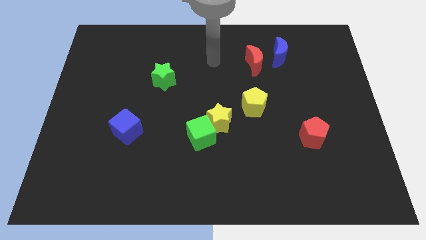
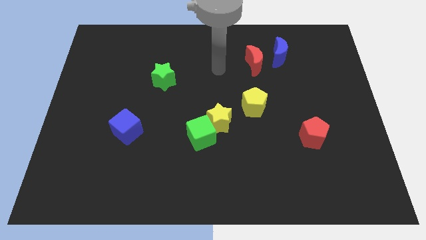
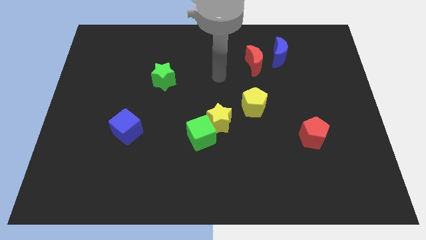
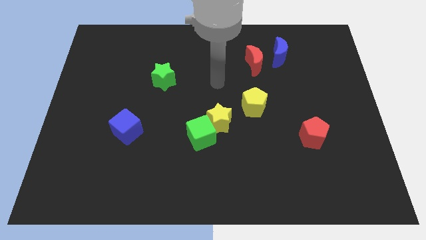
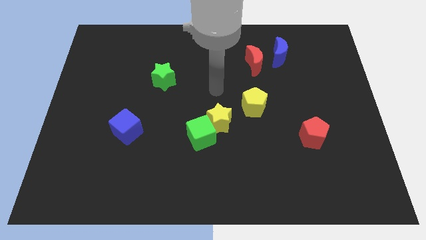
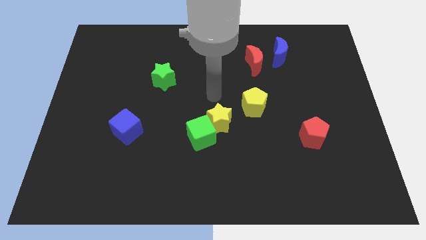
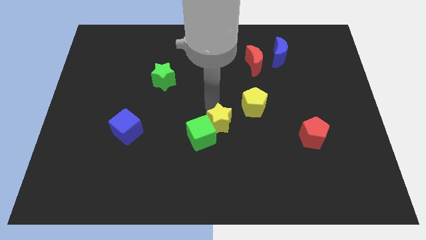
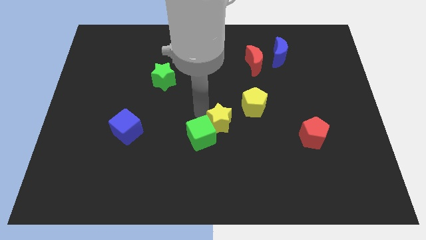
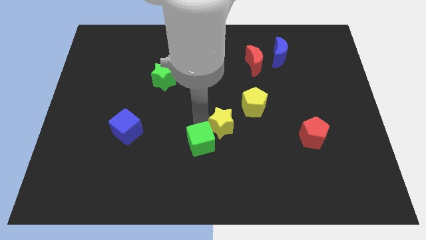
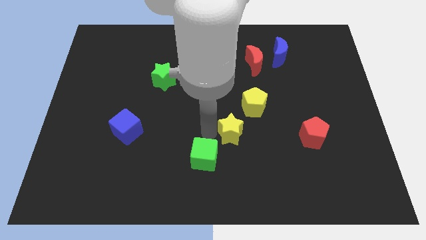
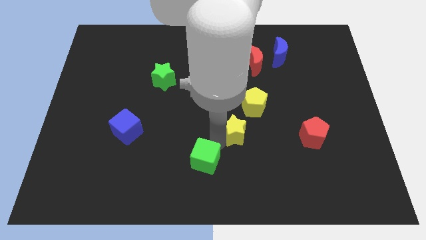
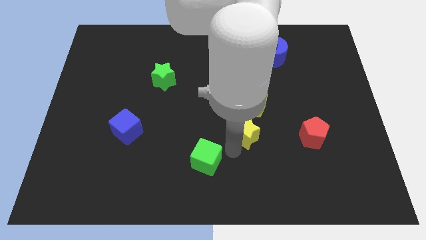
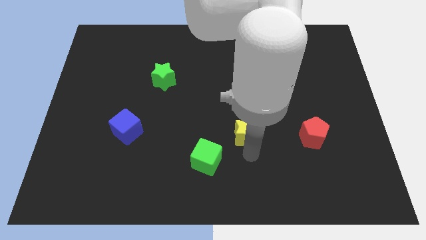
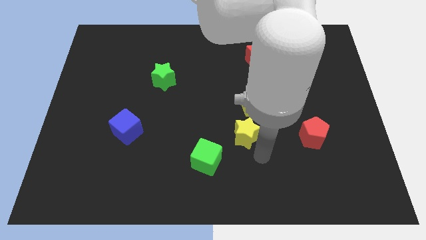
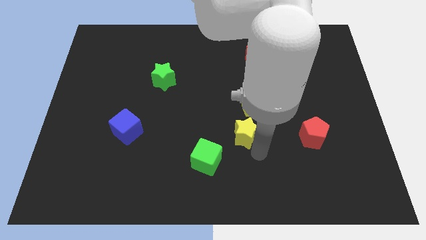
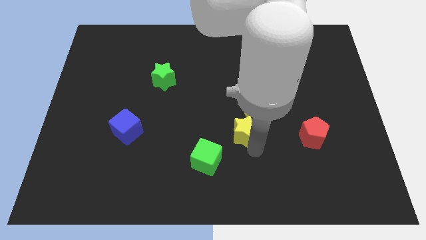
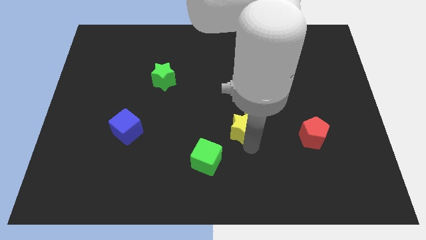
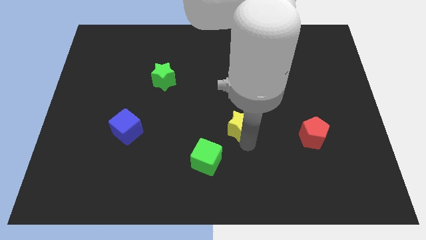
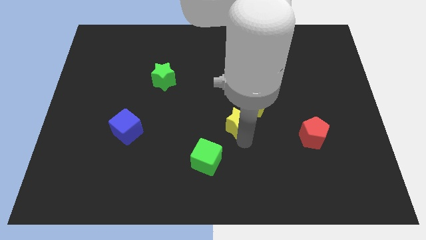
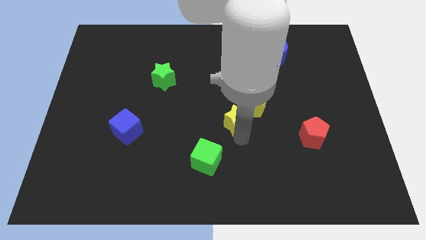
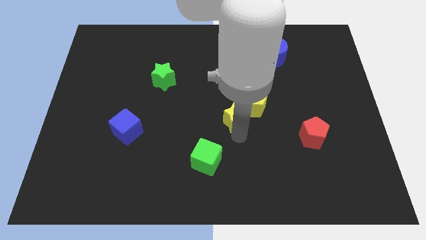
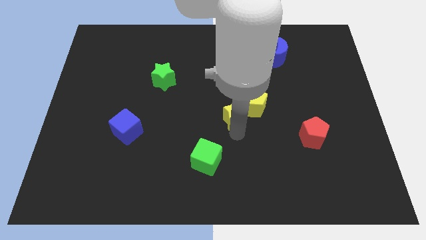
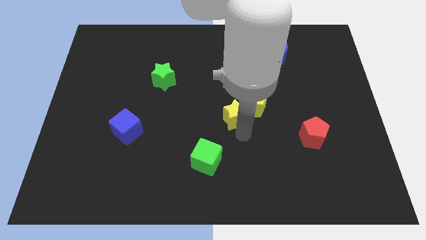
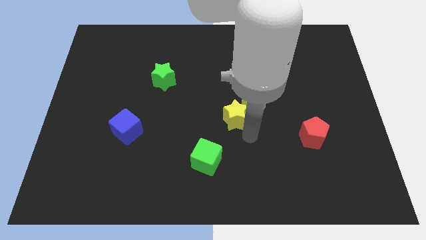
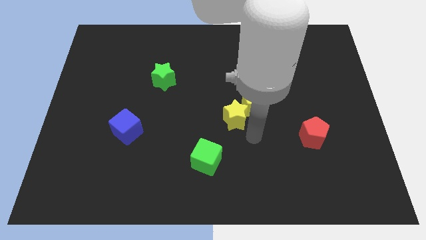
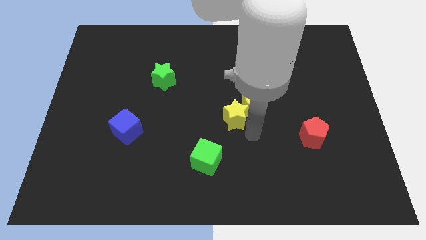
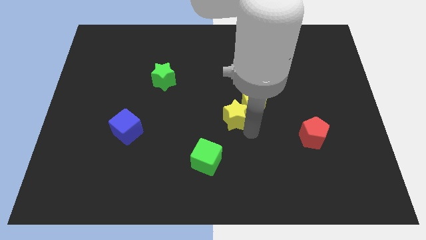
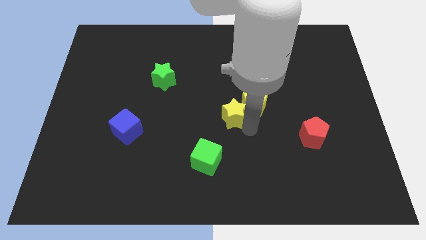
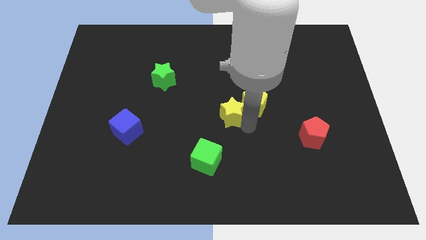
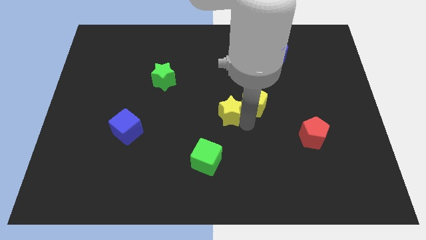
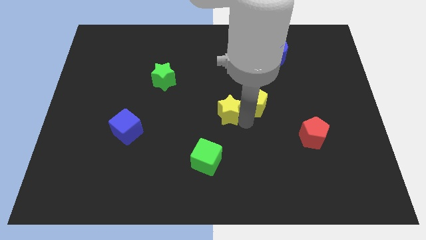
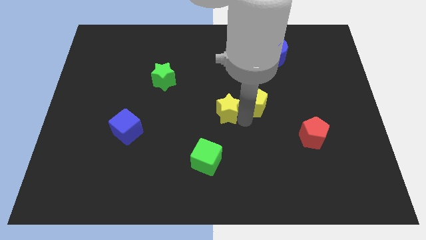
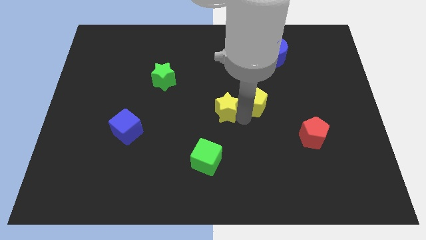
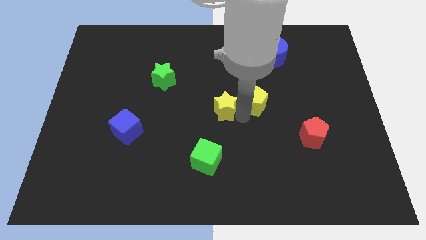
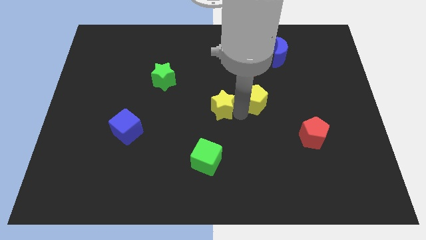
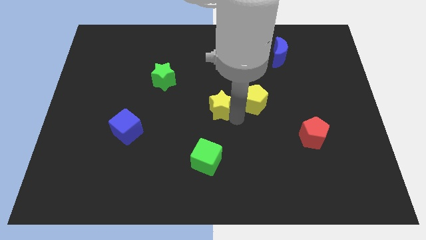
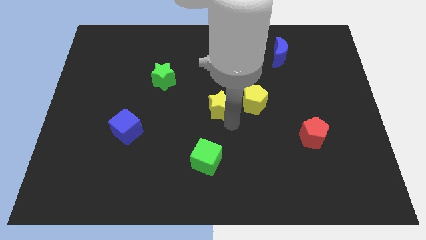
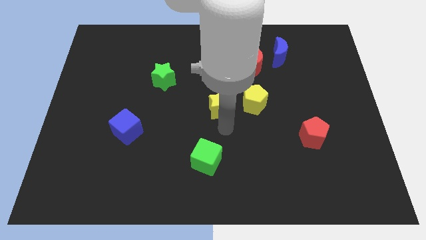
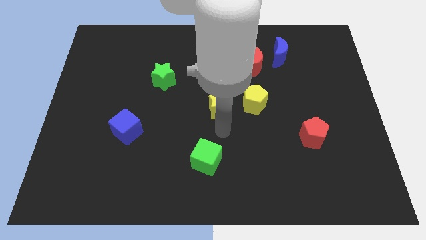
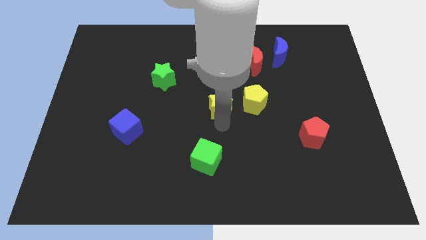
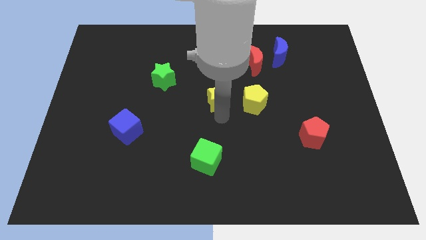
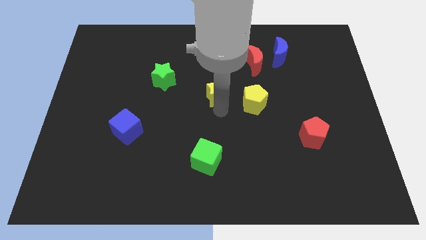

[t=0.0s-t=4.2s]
slide the yellow star slightly upwards

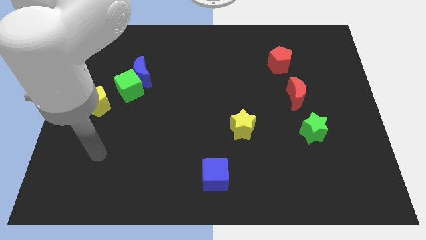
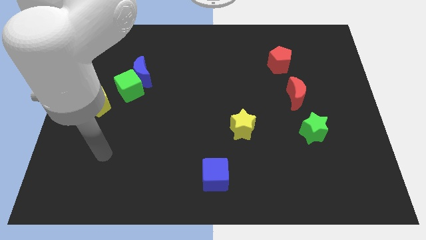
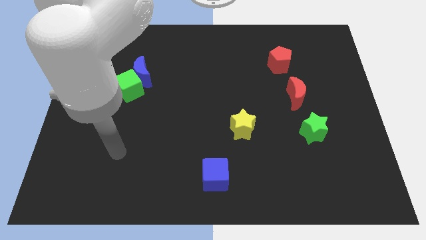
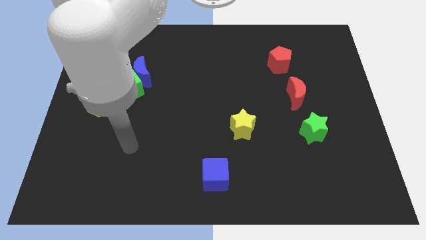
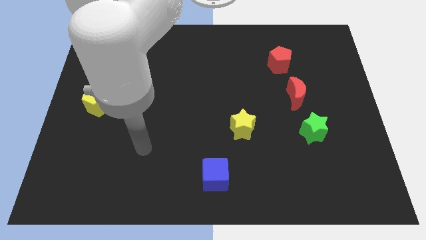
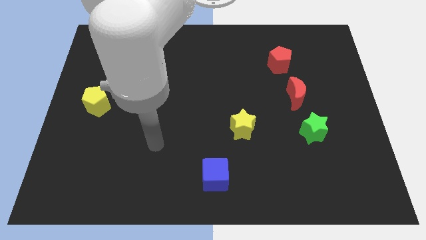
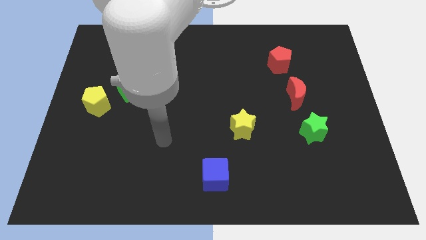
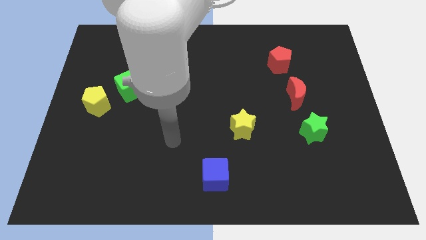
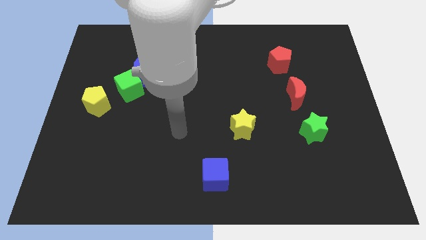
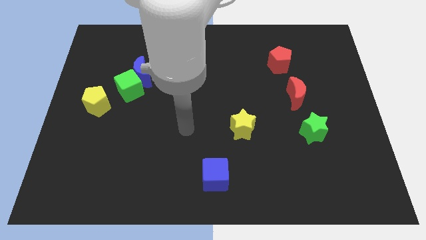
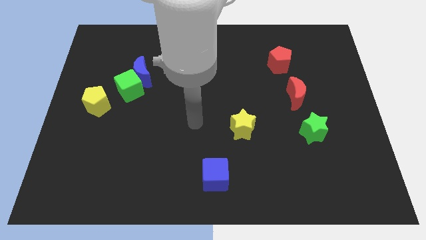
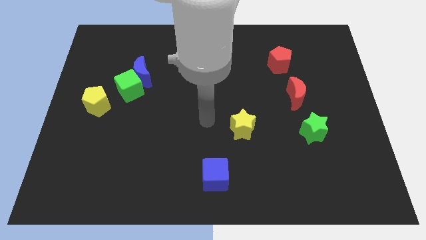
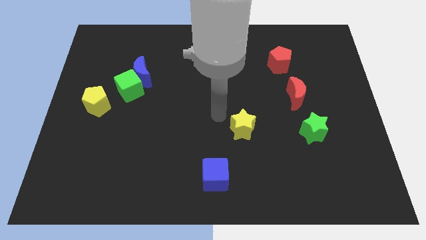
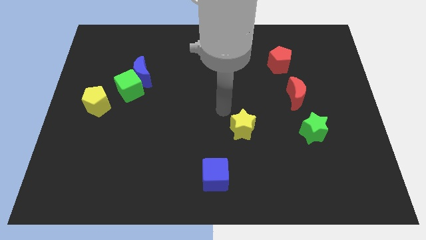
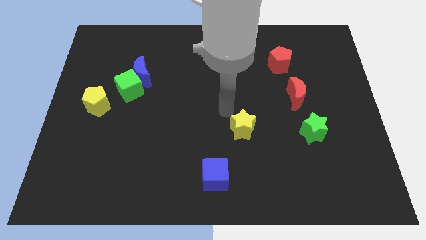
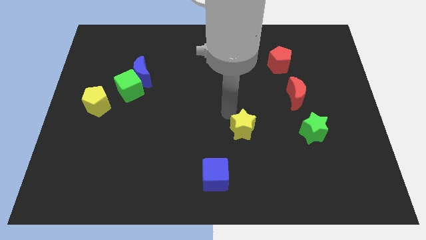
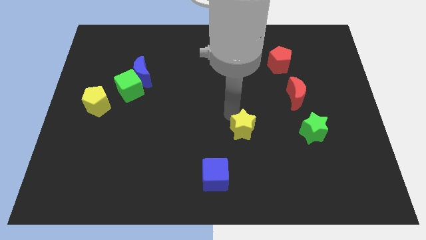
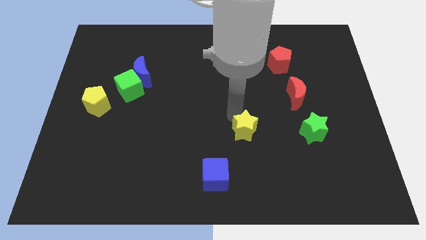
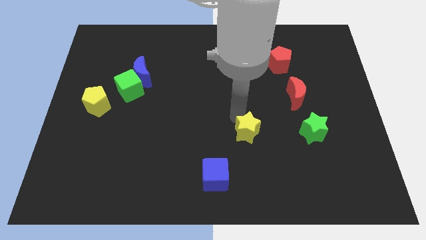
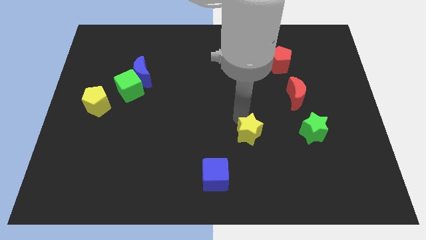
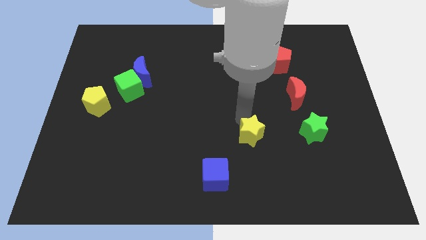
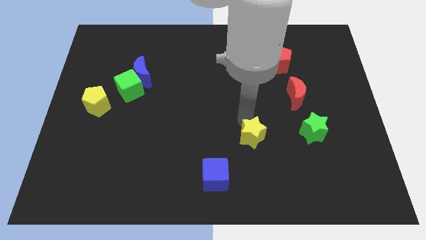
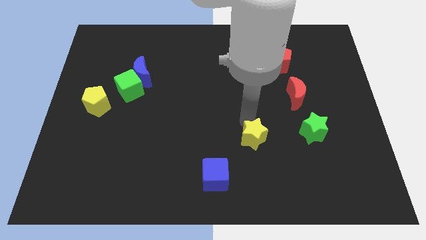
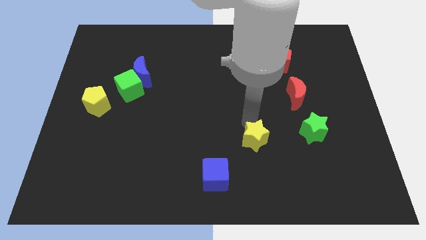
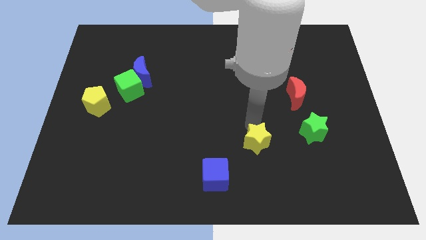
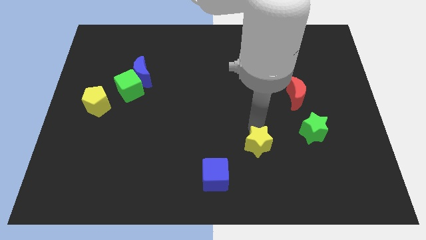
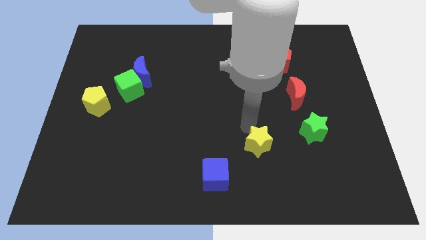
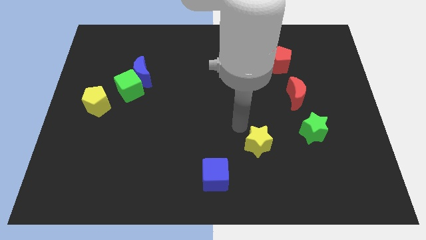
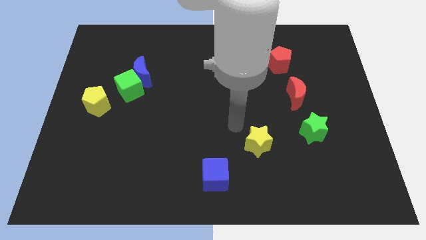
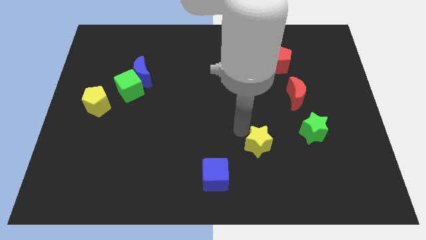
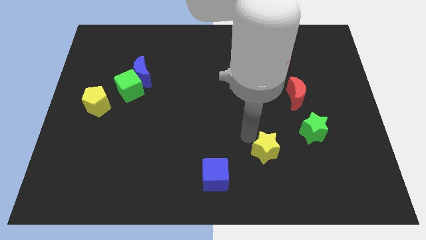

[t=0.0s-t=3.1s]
slightly push the yellow star downwards and then to the right

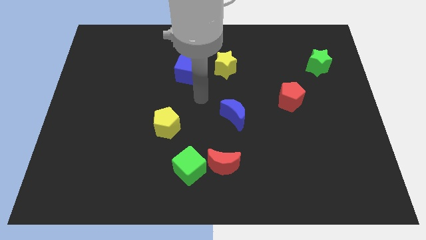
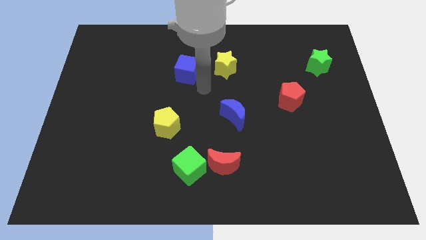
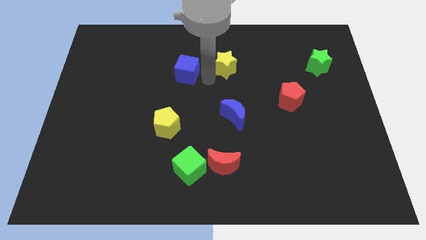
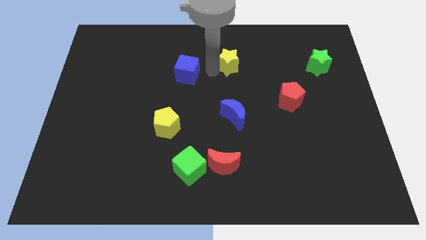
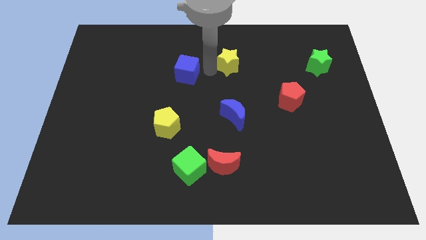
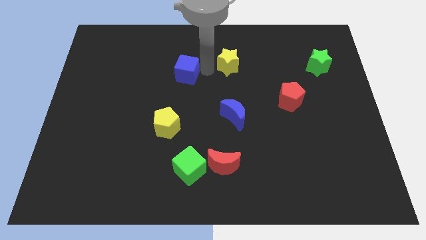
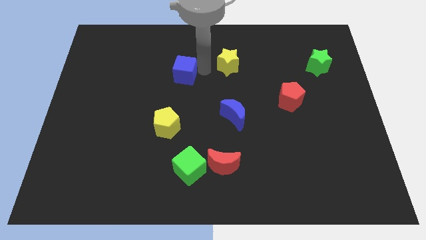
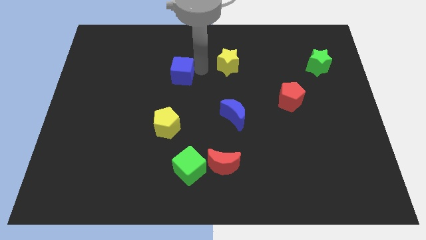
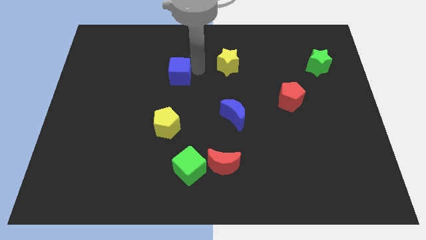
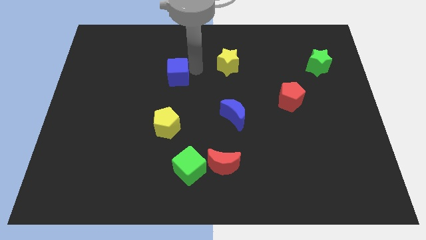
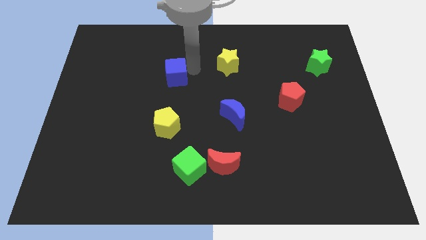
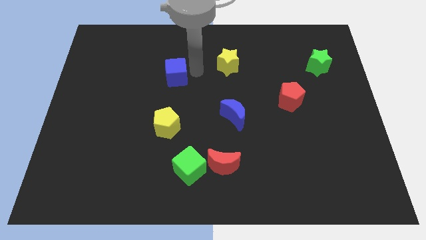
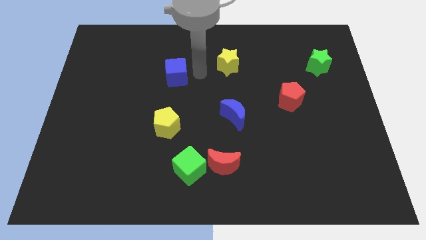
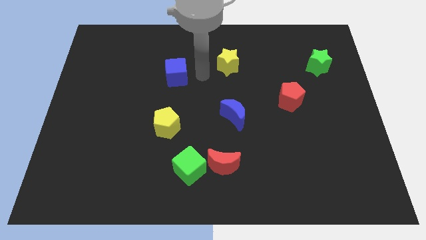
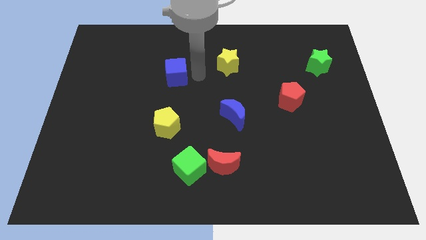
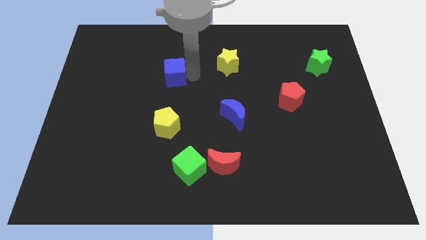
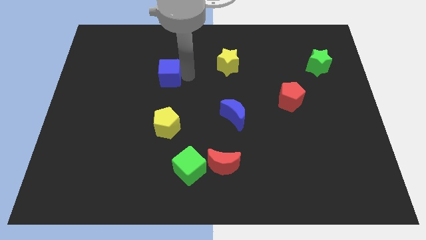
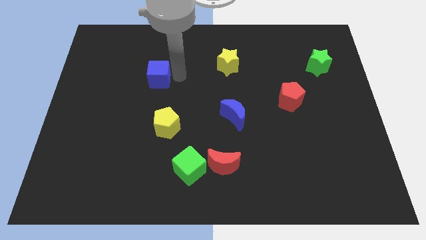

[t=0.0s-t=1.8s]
slightly slide the blue cube left
